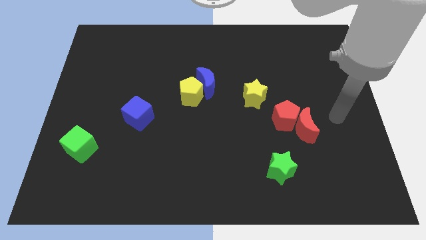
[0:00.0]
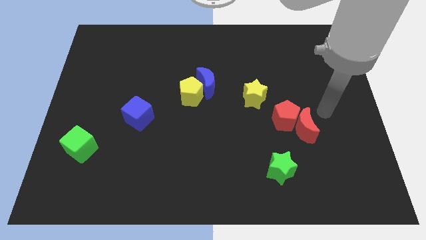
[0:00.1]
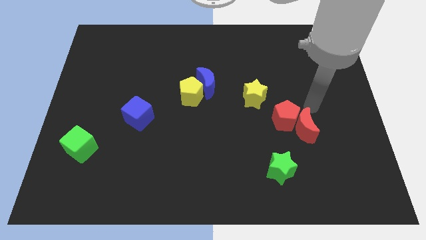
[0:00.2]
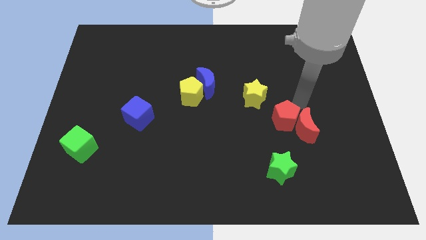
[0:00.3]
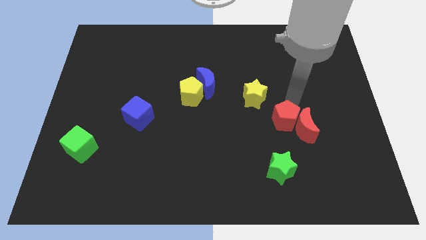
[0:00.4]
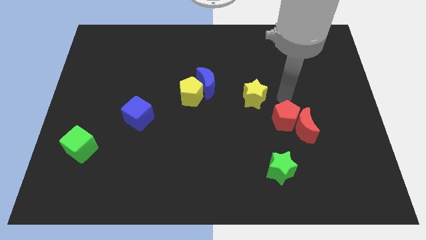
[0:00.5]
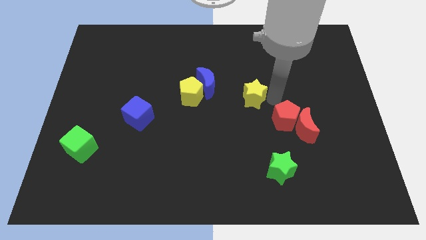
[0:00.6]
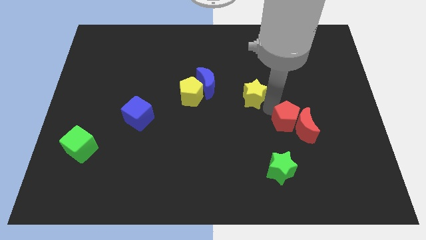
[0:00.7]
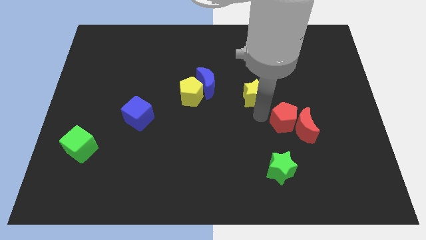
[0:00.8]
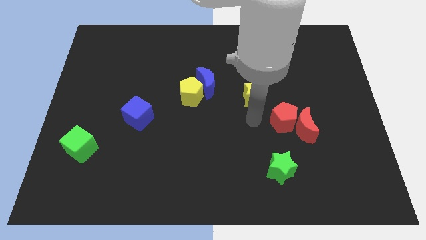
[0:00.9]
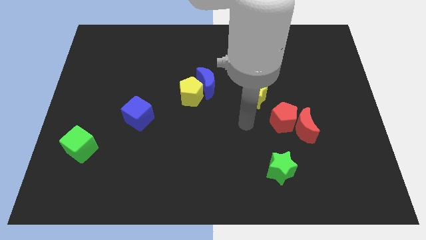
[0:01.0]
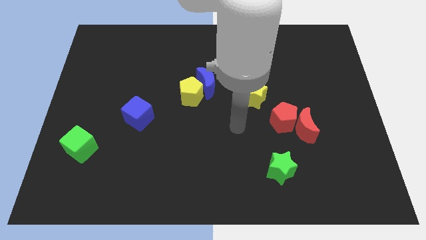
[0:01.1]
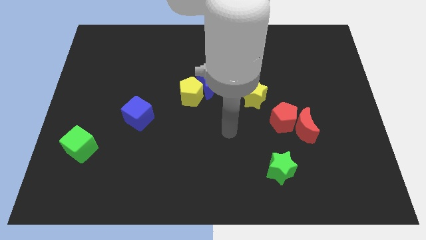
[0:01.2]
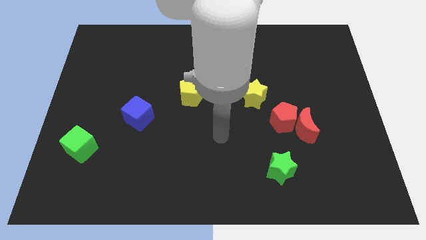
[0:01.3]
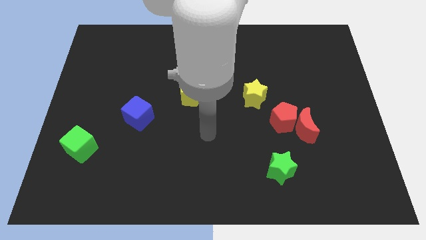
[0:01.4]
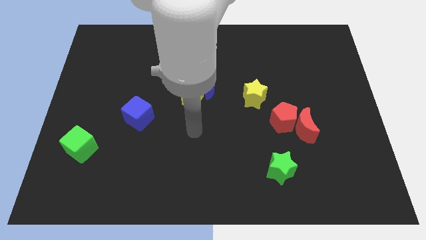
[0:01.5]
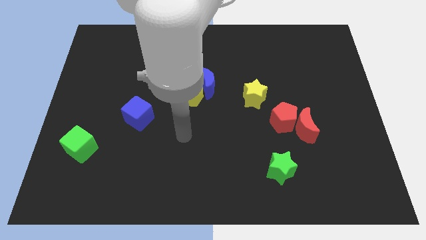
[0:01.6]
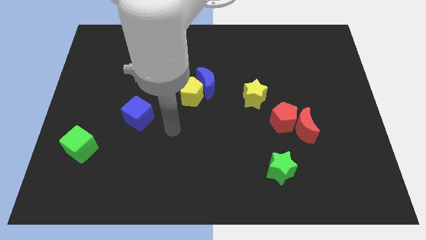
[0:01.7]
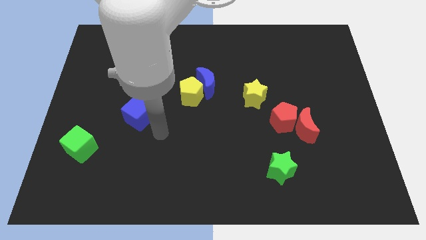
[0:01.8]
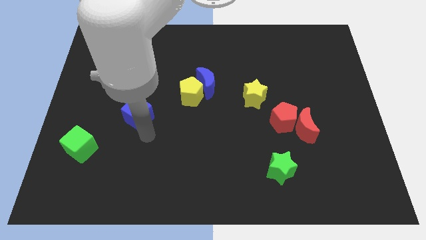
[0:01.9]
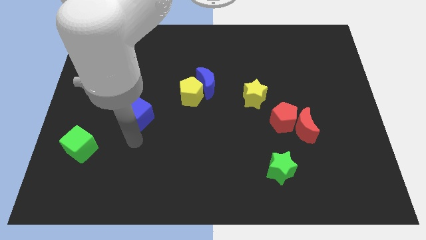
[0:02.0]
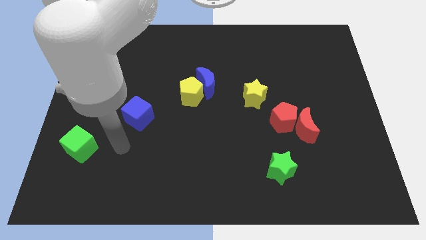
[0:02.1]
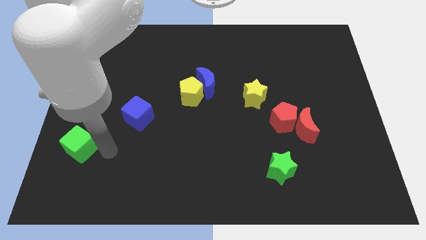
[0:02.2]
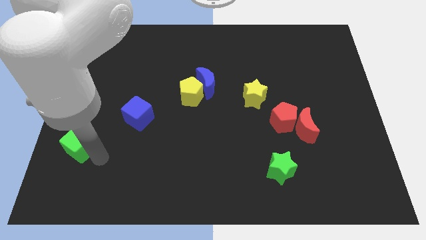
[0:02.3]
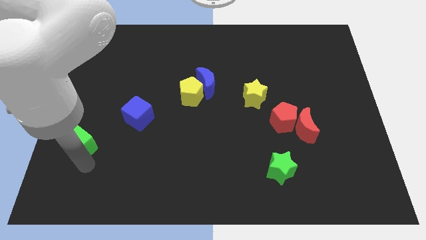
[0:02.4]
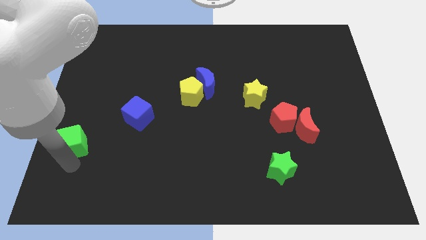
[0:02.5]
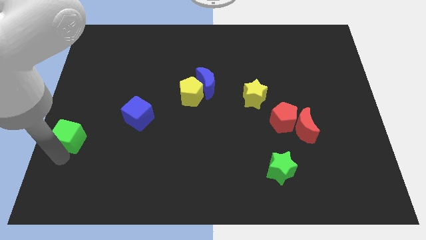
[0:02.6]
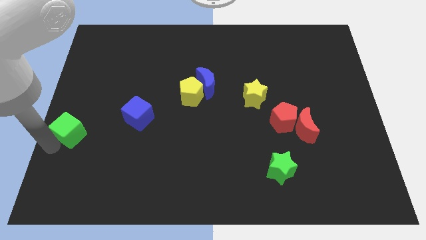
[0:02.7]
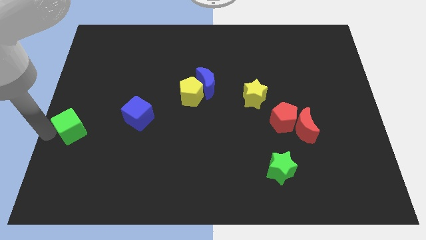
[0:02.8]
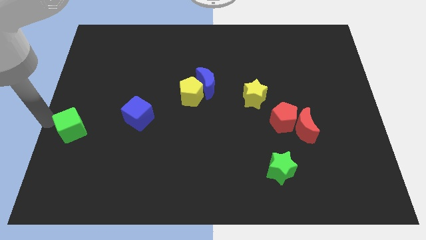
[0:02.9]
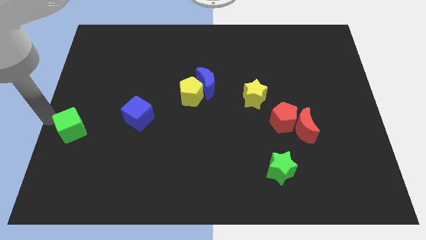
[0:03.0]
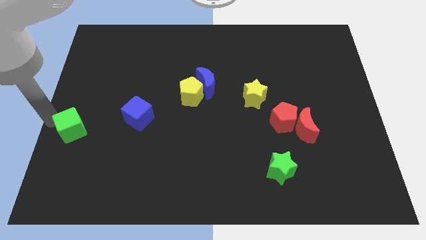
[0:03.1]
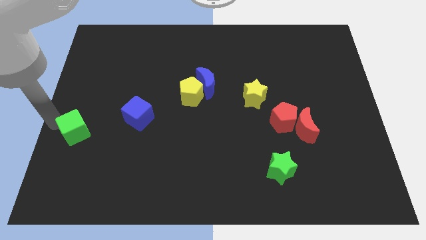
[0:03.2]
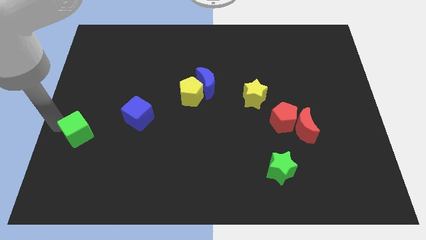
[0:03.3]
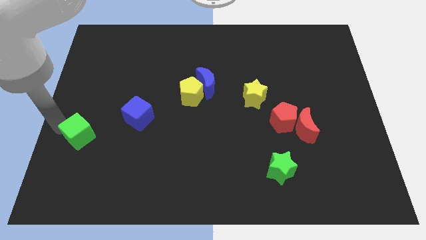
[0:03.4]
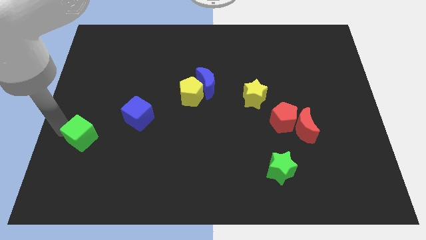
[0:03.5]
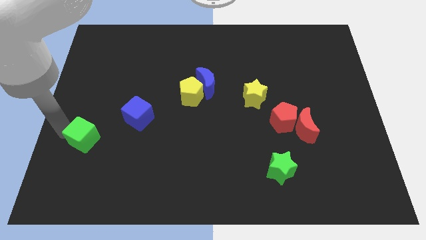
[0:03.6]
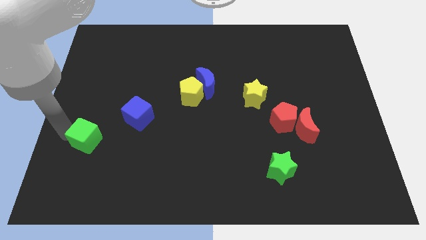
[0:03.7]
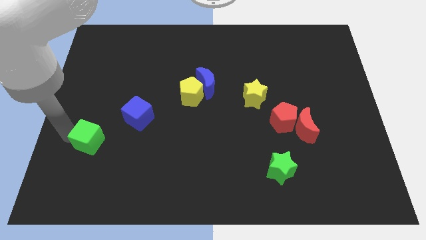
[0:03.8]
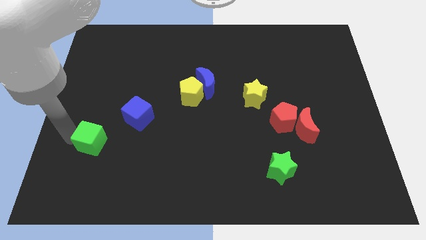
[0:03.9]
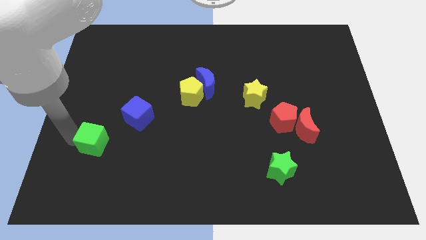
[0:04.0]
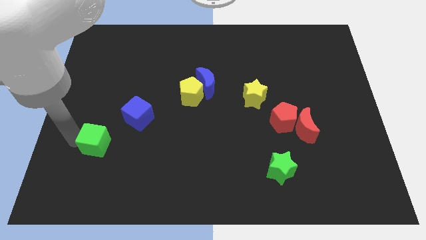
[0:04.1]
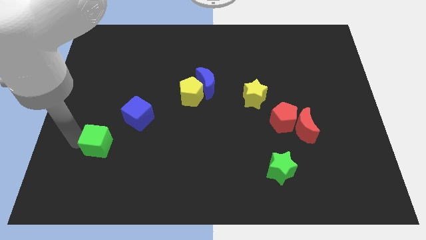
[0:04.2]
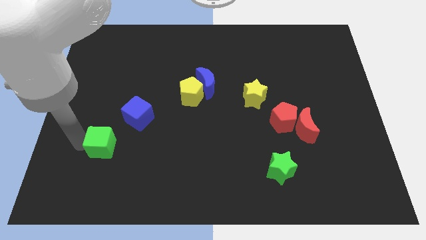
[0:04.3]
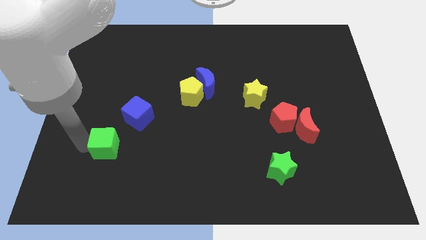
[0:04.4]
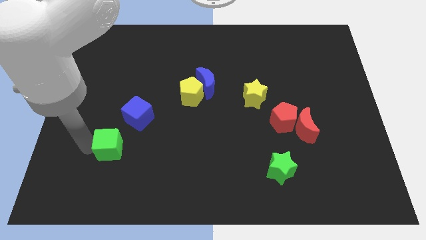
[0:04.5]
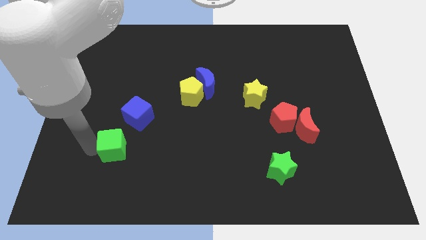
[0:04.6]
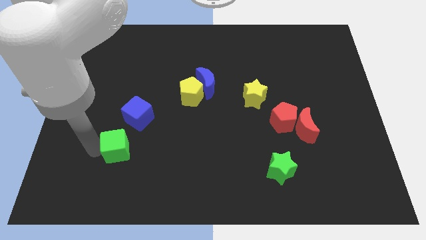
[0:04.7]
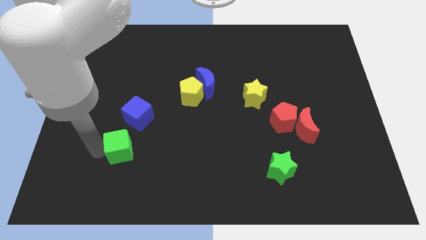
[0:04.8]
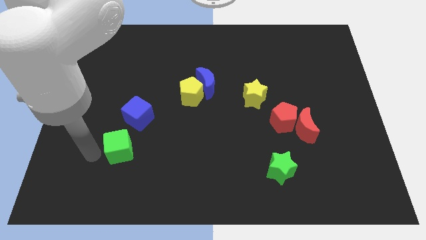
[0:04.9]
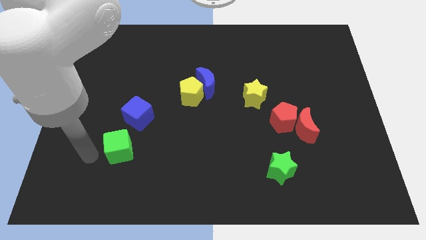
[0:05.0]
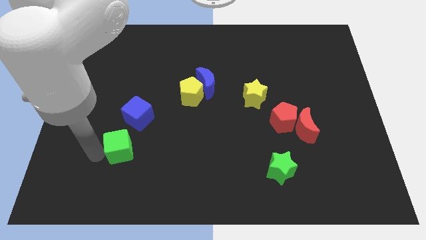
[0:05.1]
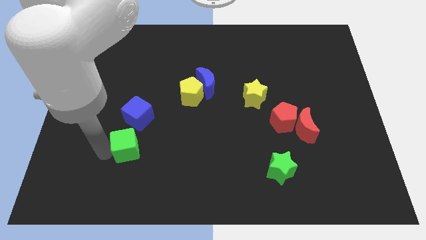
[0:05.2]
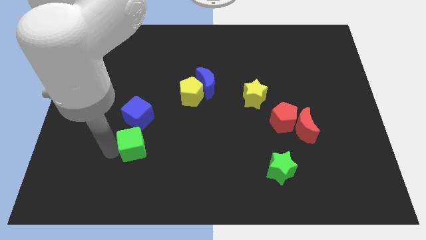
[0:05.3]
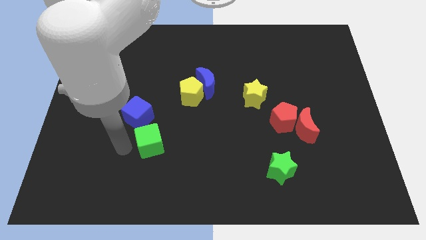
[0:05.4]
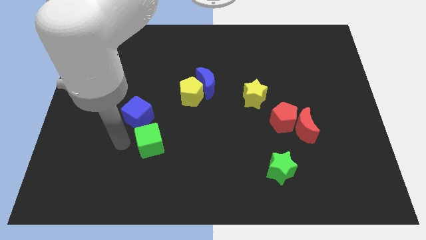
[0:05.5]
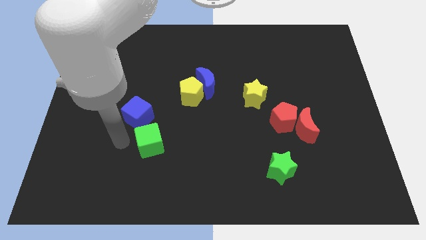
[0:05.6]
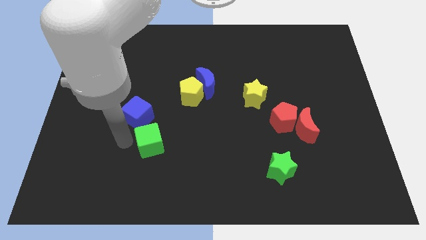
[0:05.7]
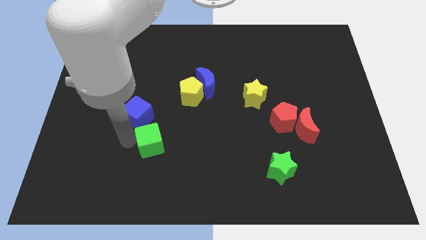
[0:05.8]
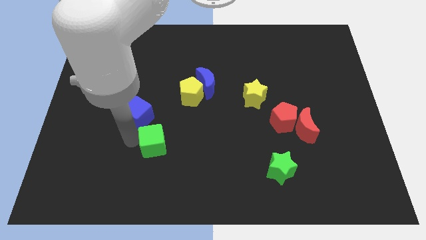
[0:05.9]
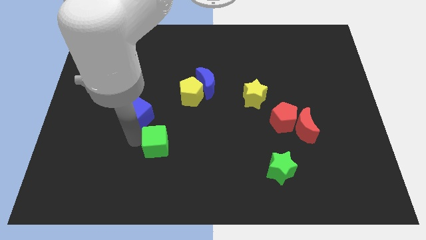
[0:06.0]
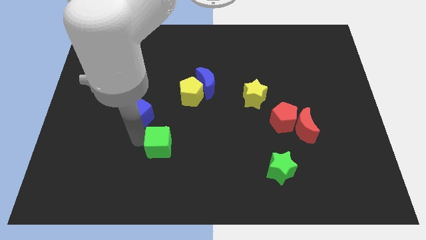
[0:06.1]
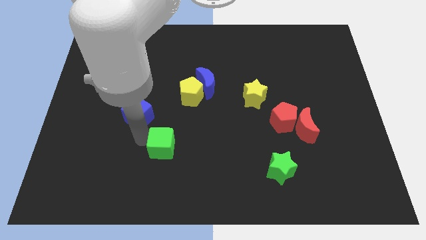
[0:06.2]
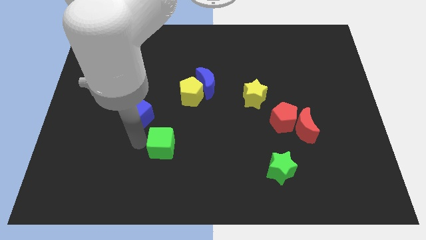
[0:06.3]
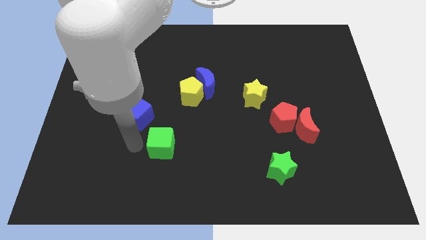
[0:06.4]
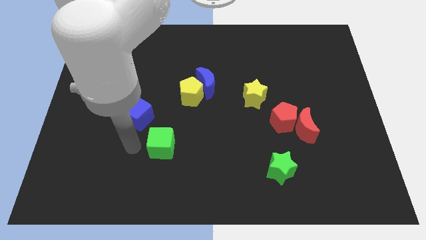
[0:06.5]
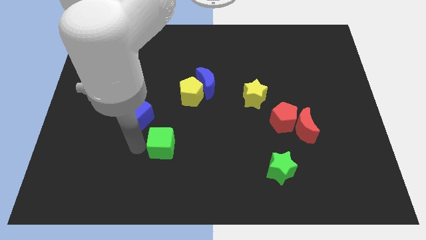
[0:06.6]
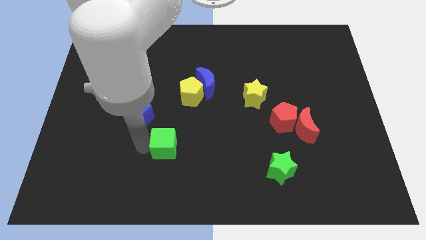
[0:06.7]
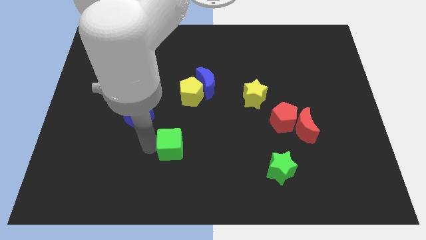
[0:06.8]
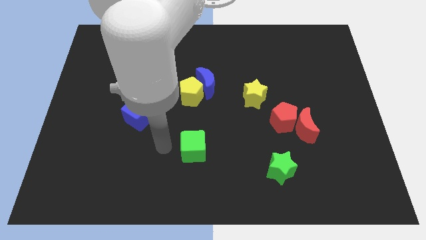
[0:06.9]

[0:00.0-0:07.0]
slide the green cube right

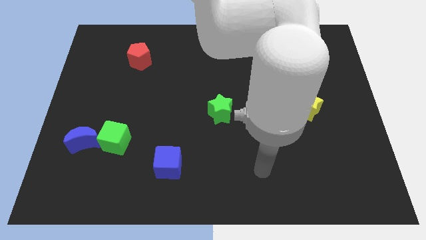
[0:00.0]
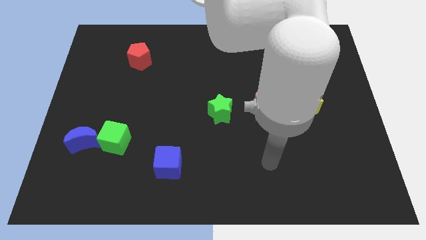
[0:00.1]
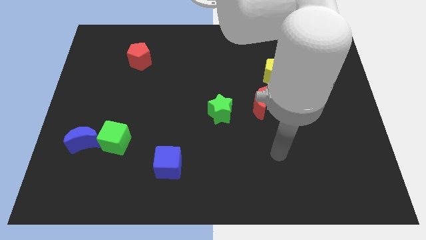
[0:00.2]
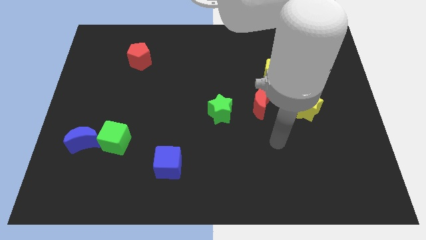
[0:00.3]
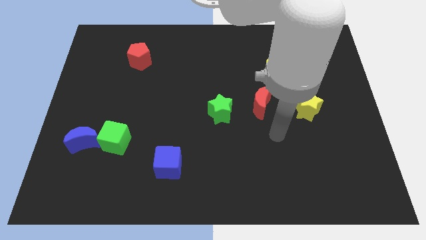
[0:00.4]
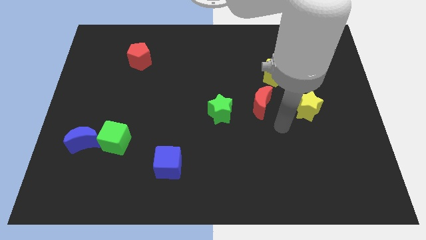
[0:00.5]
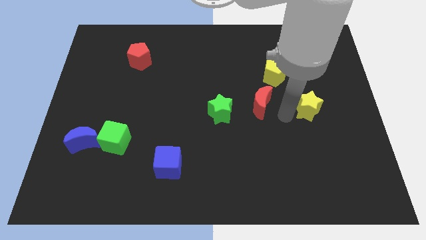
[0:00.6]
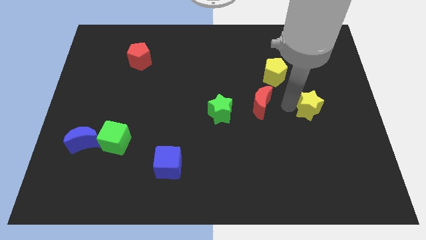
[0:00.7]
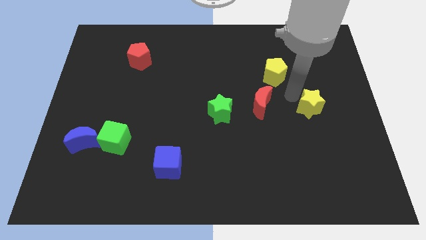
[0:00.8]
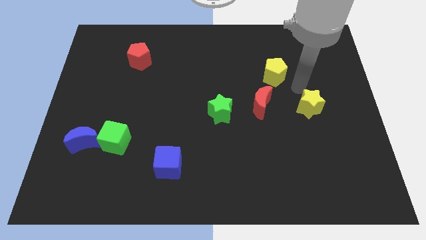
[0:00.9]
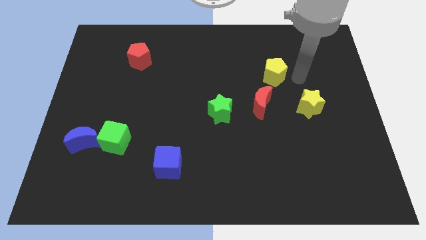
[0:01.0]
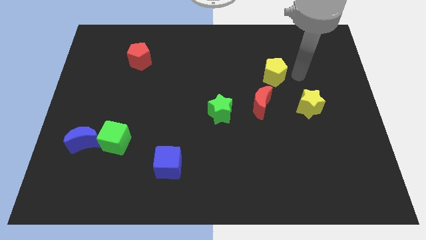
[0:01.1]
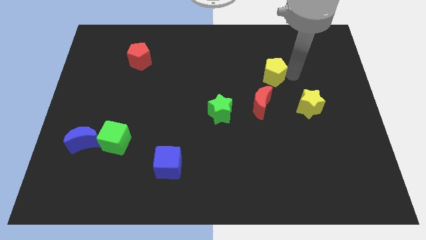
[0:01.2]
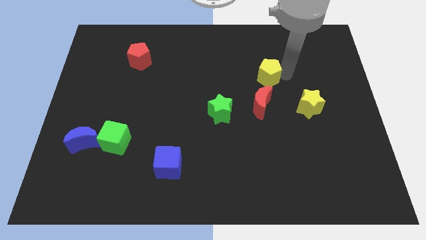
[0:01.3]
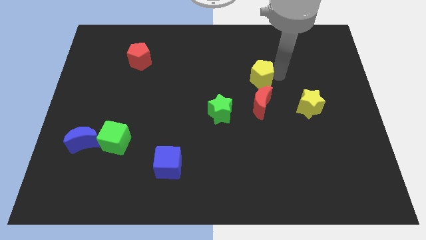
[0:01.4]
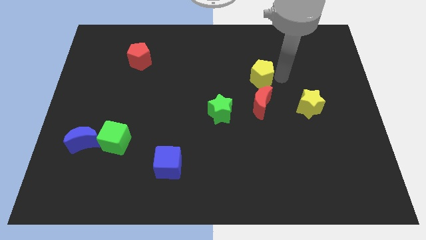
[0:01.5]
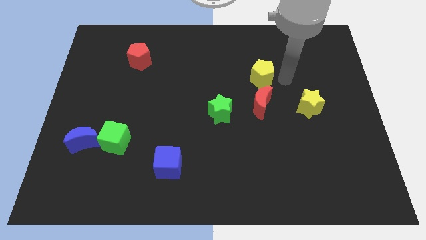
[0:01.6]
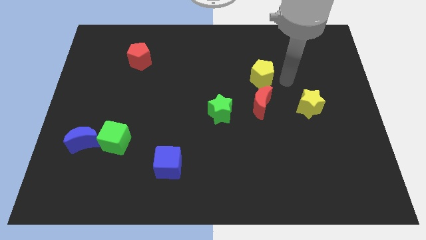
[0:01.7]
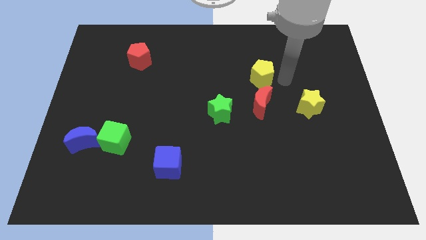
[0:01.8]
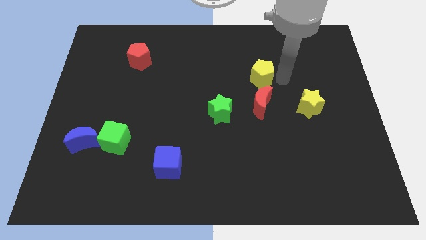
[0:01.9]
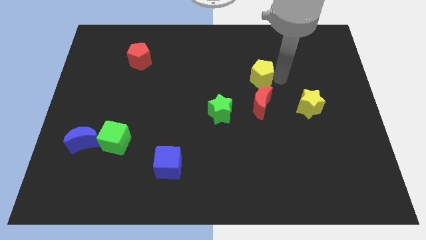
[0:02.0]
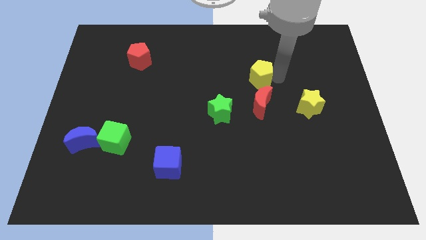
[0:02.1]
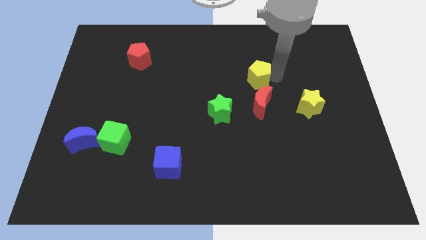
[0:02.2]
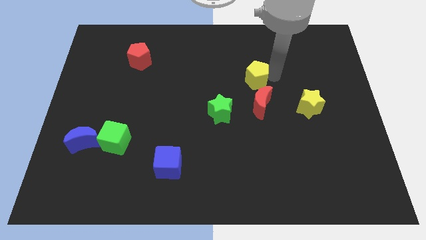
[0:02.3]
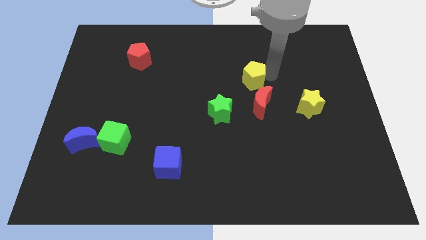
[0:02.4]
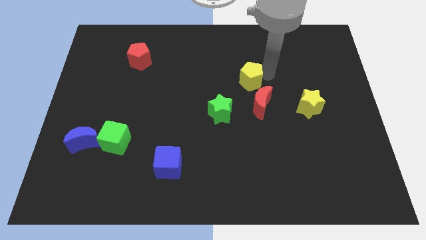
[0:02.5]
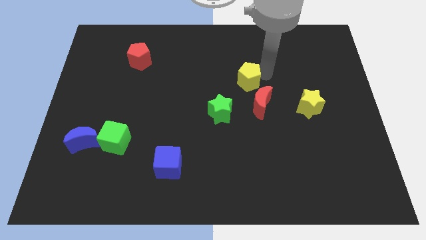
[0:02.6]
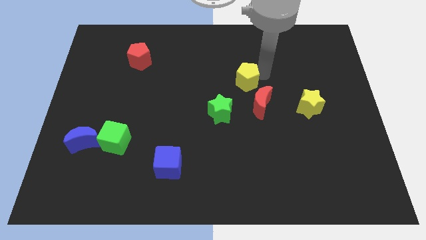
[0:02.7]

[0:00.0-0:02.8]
slide the yellow pentagon to the left somewhat
